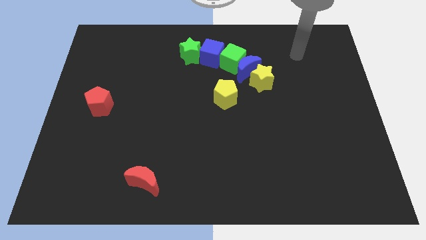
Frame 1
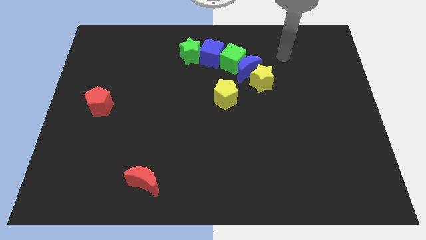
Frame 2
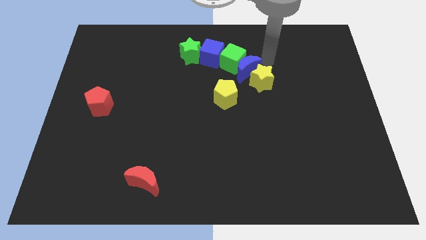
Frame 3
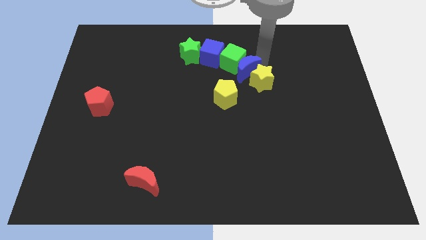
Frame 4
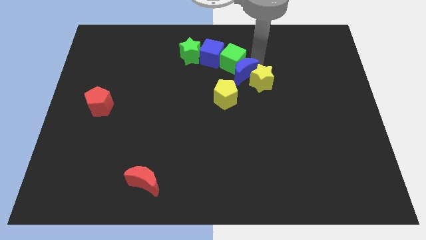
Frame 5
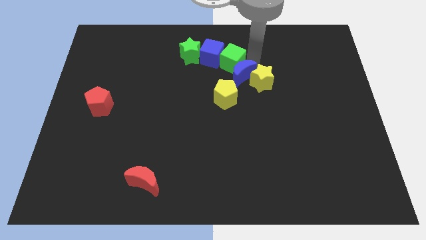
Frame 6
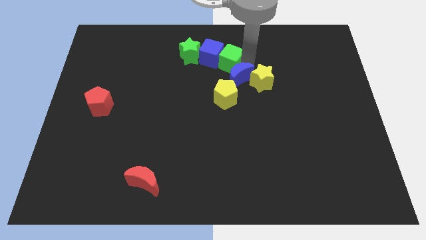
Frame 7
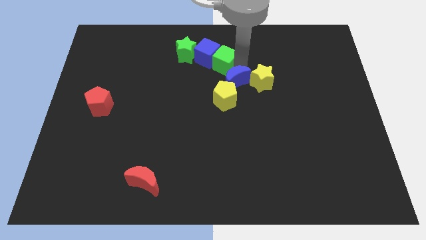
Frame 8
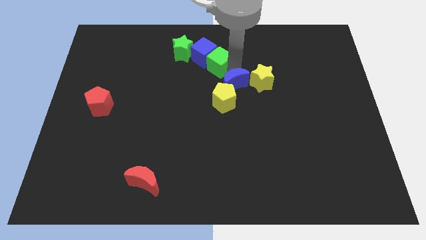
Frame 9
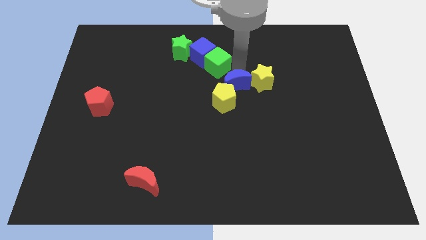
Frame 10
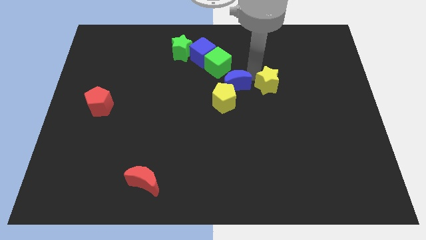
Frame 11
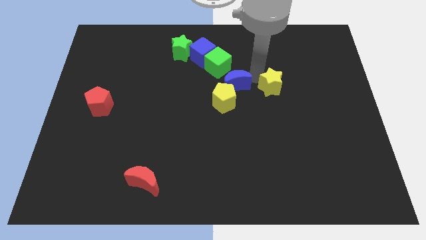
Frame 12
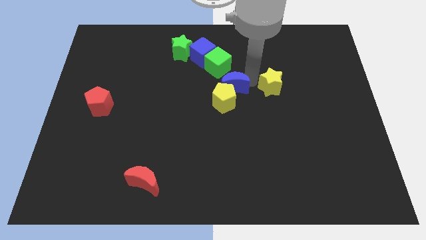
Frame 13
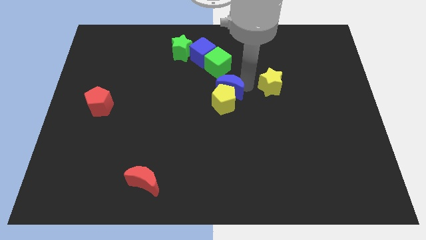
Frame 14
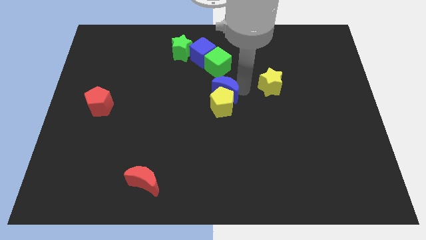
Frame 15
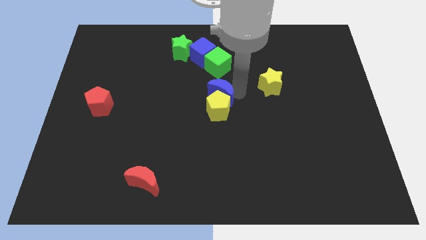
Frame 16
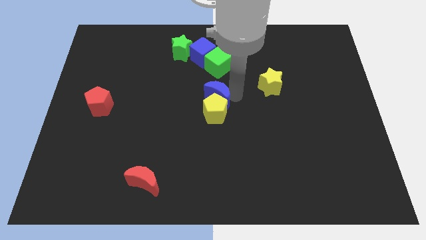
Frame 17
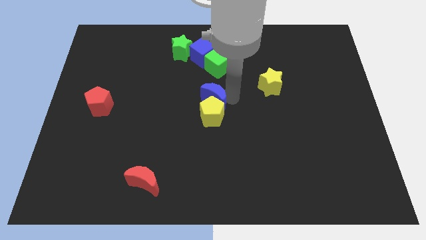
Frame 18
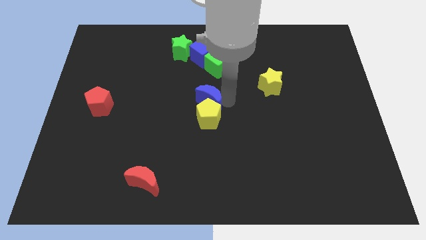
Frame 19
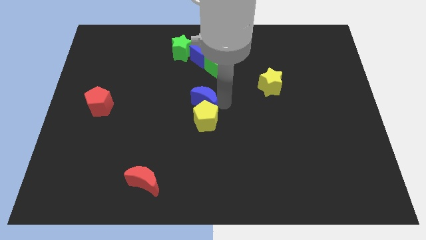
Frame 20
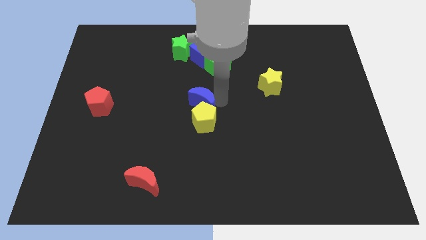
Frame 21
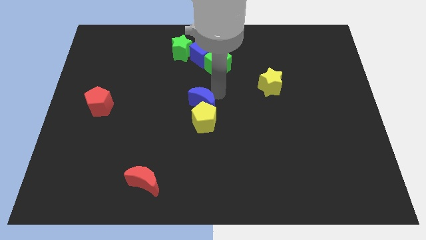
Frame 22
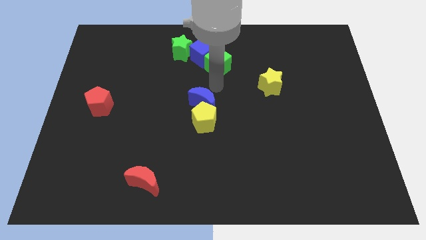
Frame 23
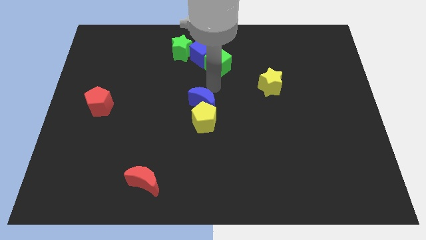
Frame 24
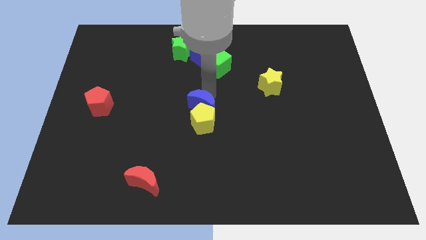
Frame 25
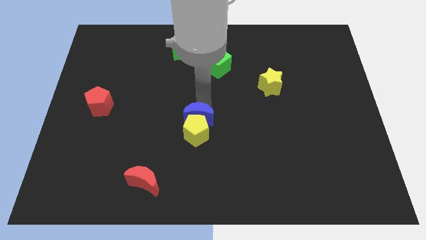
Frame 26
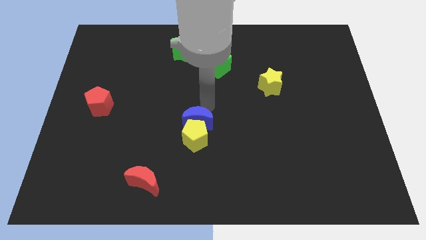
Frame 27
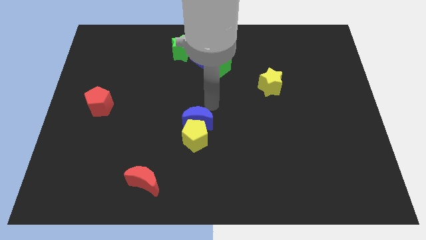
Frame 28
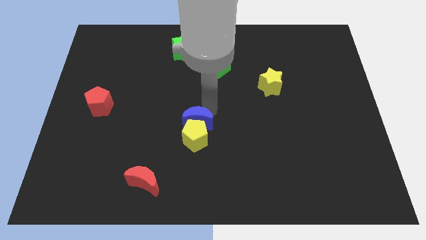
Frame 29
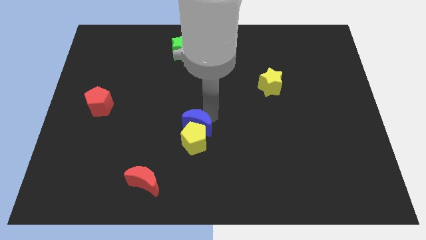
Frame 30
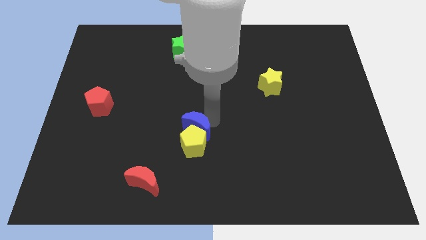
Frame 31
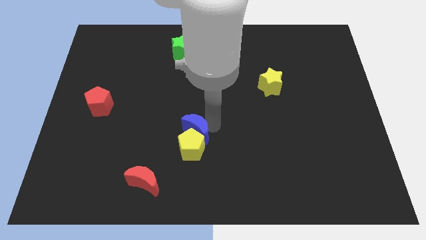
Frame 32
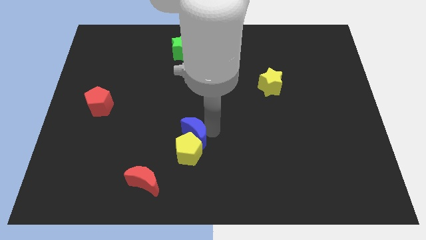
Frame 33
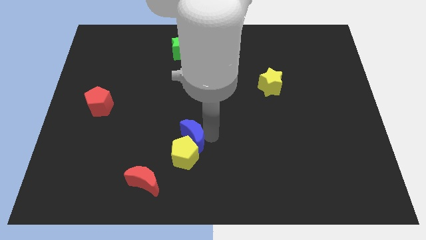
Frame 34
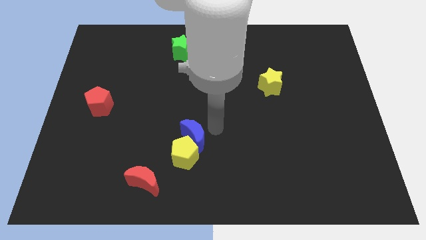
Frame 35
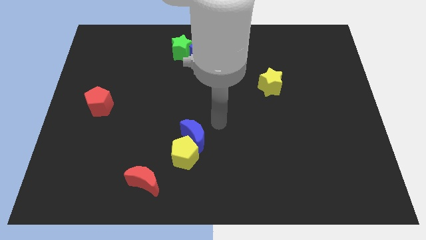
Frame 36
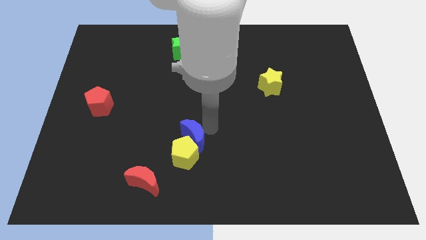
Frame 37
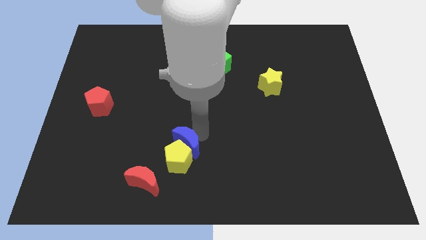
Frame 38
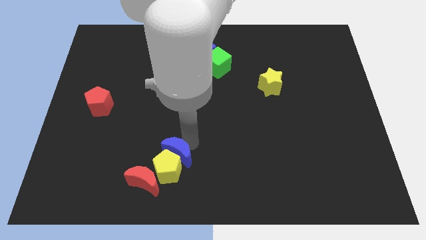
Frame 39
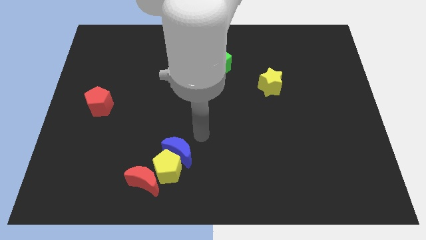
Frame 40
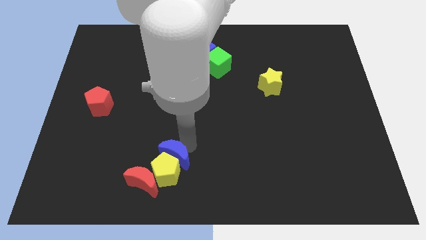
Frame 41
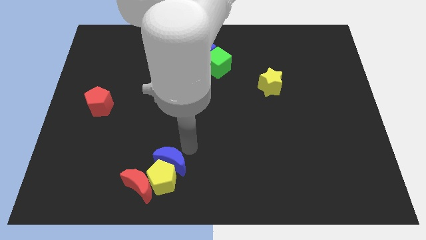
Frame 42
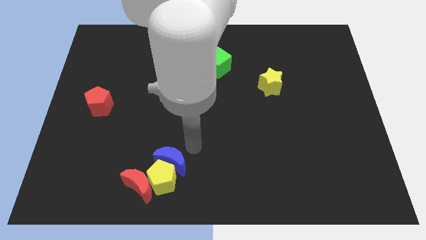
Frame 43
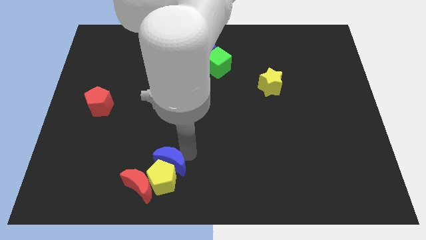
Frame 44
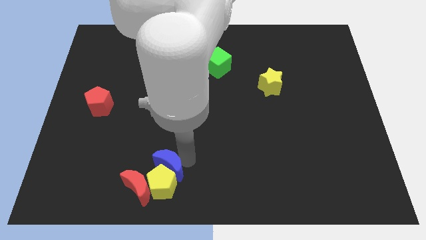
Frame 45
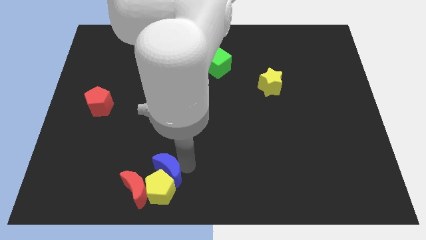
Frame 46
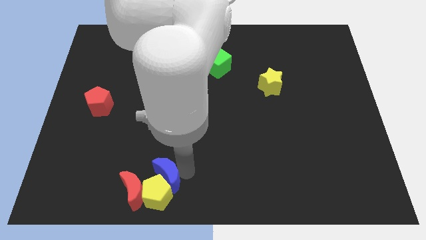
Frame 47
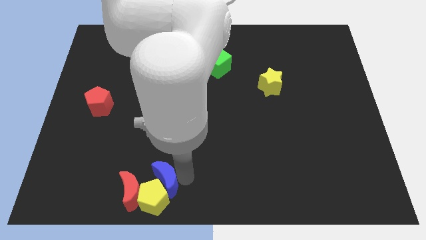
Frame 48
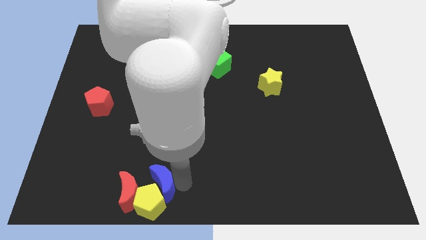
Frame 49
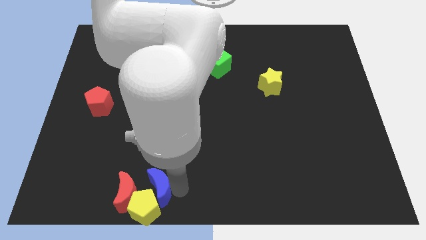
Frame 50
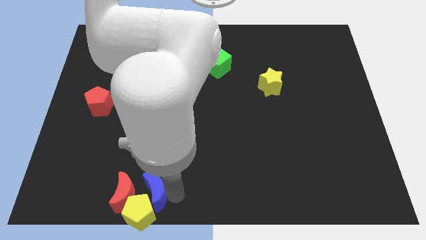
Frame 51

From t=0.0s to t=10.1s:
put the blue moon close to the red moon

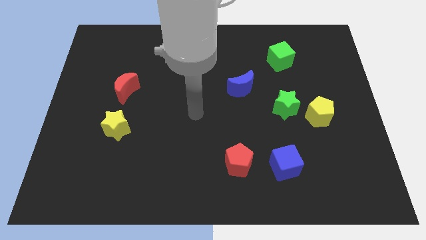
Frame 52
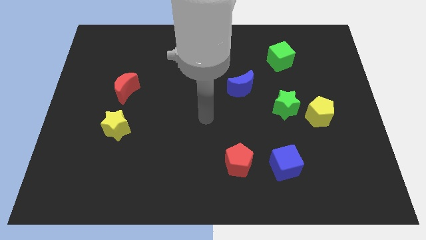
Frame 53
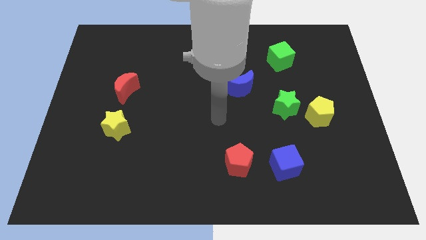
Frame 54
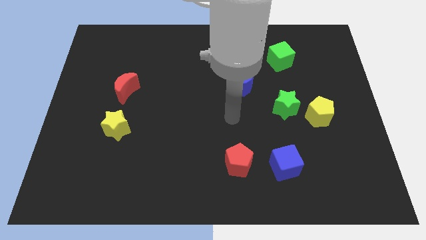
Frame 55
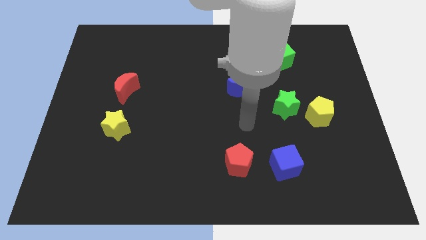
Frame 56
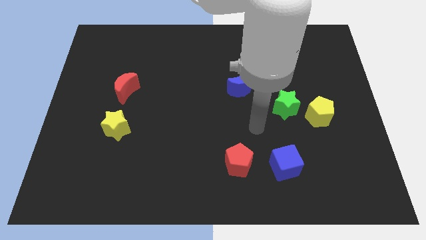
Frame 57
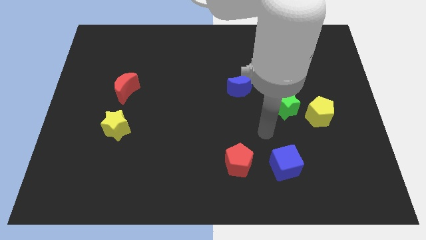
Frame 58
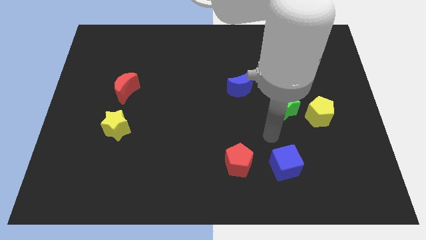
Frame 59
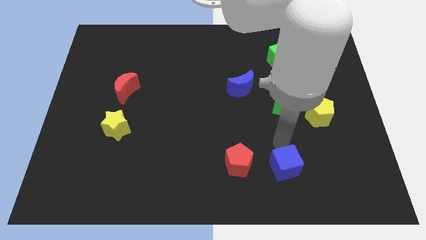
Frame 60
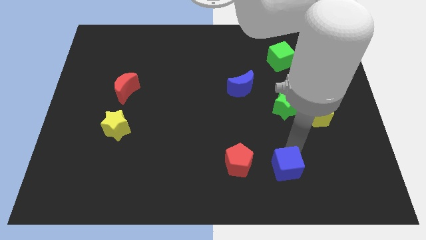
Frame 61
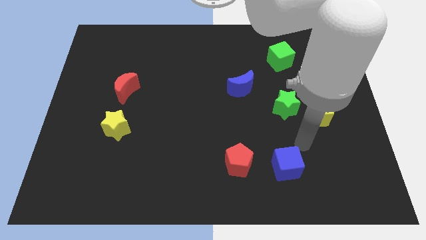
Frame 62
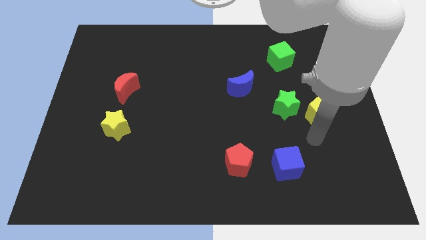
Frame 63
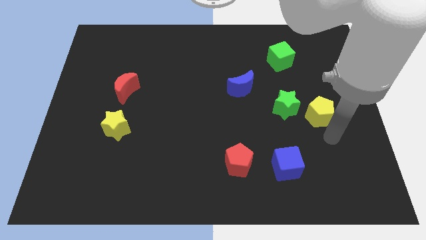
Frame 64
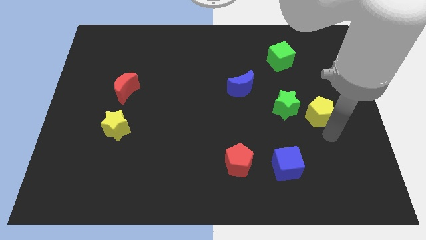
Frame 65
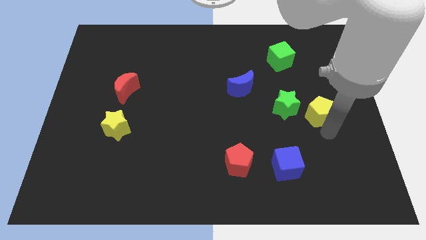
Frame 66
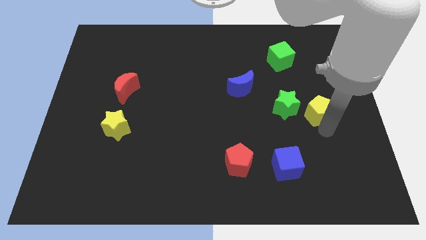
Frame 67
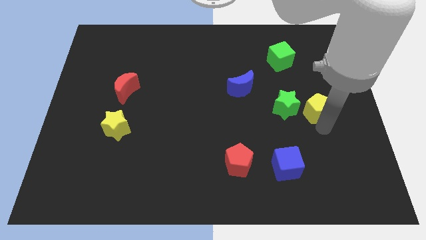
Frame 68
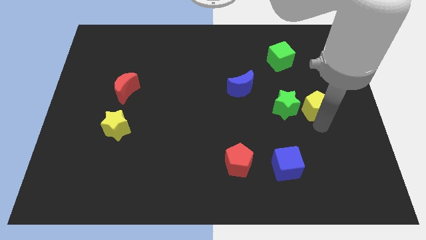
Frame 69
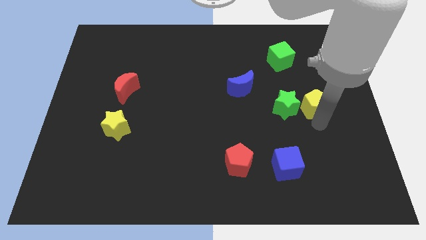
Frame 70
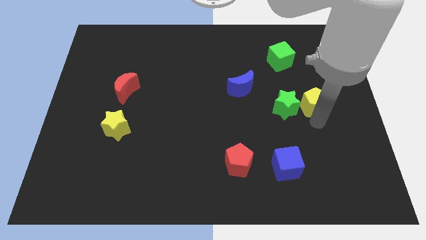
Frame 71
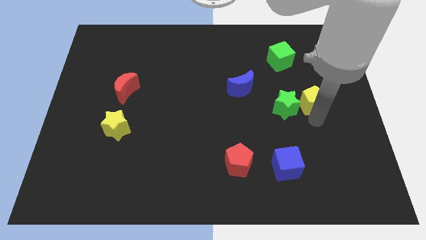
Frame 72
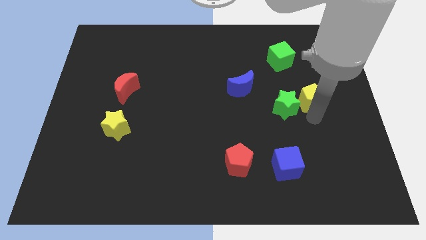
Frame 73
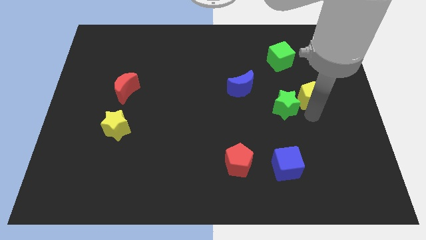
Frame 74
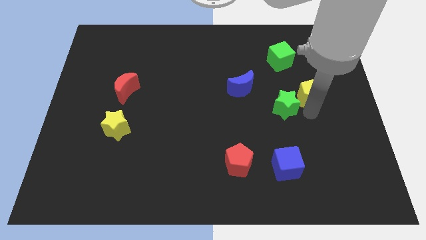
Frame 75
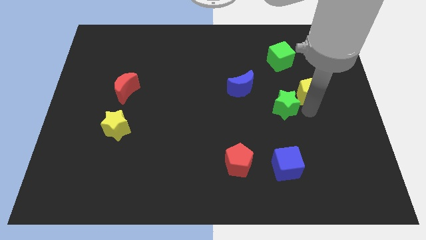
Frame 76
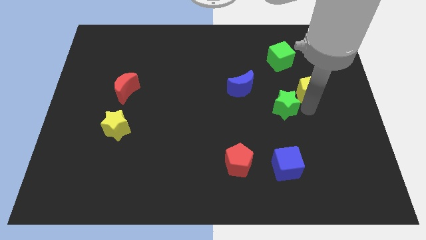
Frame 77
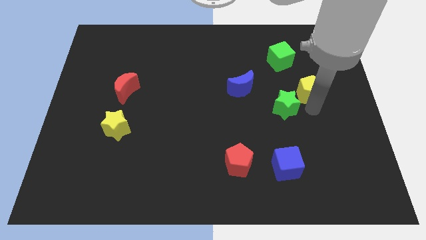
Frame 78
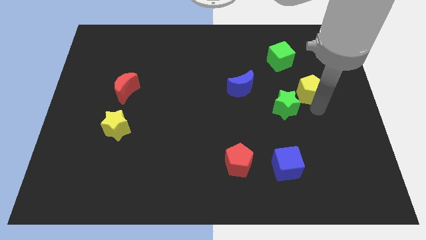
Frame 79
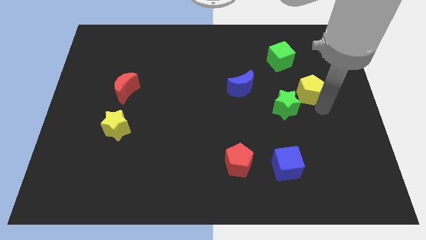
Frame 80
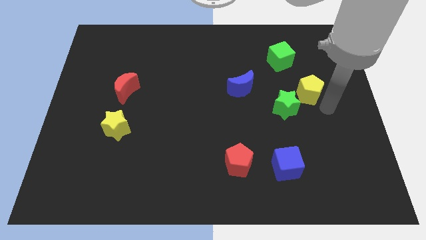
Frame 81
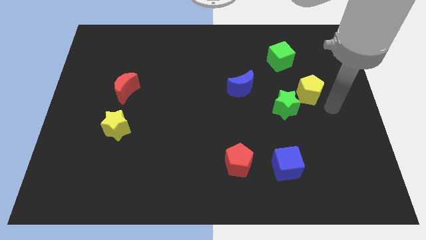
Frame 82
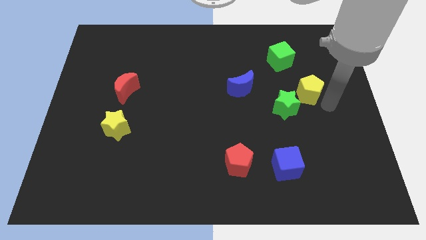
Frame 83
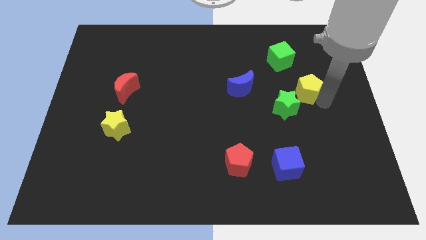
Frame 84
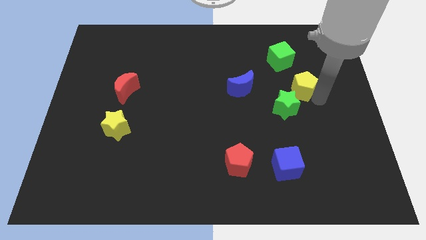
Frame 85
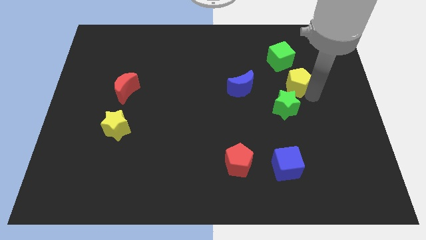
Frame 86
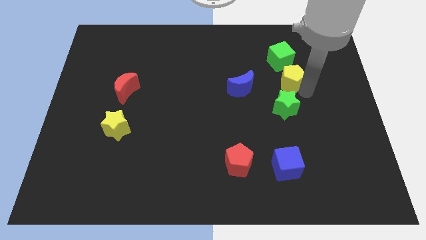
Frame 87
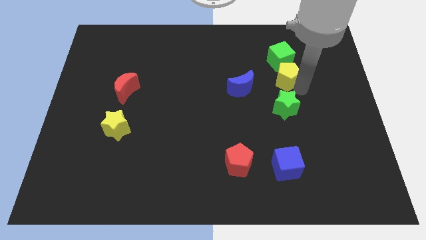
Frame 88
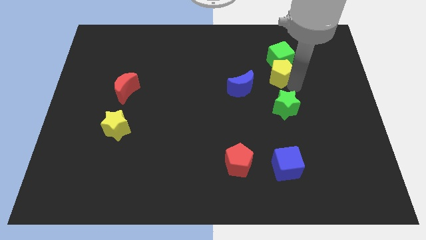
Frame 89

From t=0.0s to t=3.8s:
push the yellow pentagon towards the green cube
